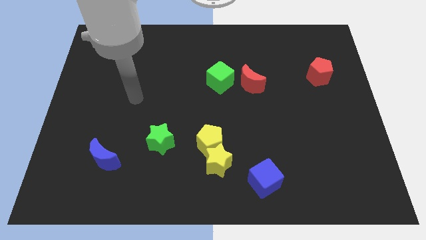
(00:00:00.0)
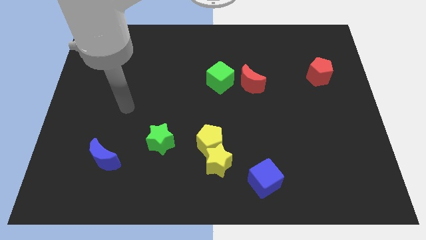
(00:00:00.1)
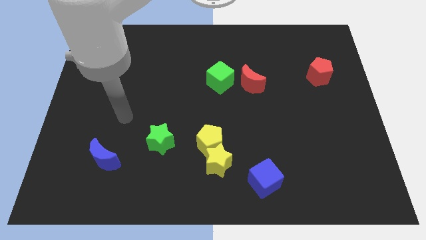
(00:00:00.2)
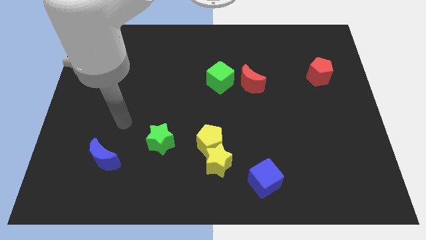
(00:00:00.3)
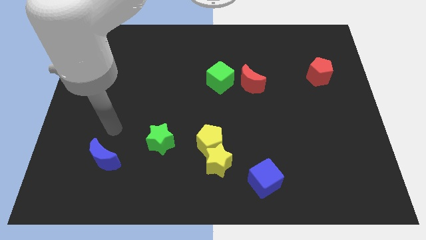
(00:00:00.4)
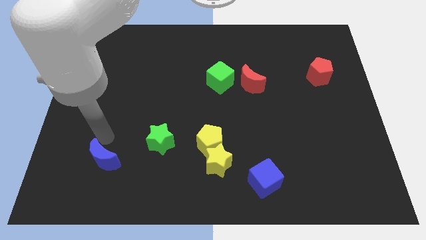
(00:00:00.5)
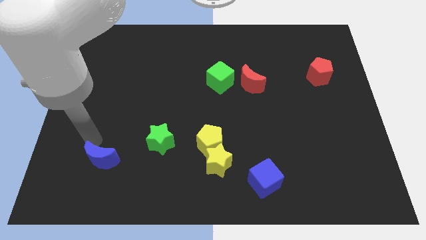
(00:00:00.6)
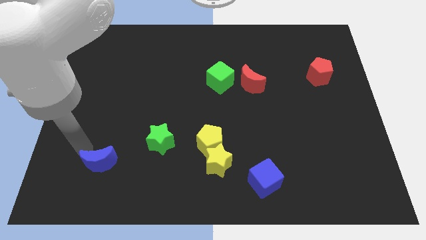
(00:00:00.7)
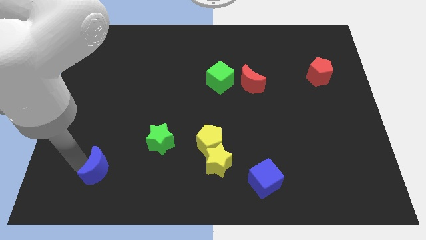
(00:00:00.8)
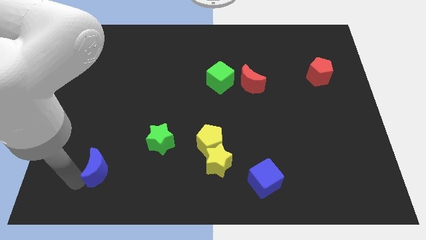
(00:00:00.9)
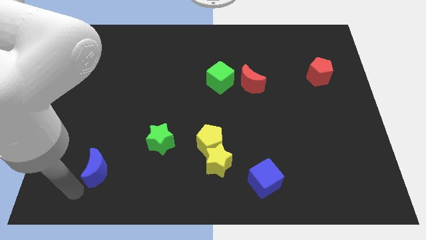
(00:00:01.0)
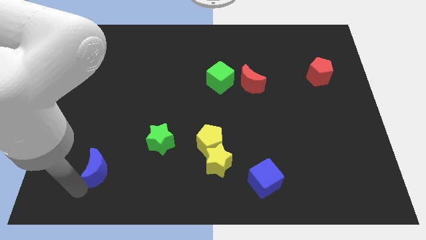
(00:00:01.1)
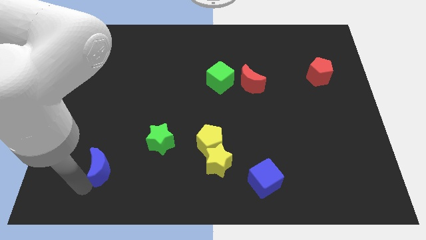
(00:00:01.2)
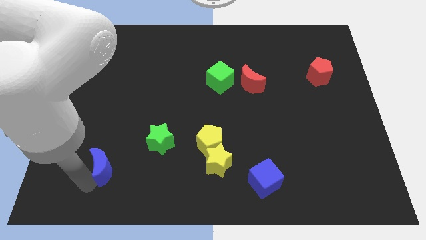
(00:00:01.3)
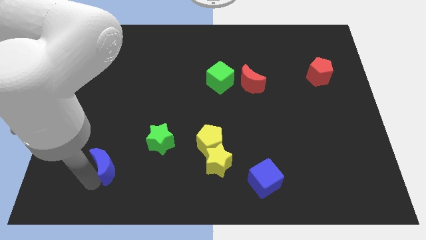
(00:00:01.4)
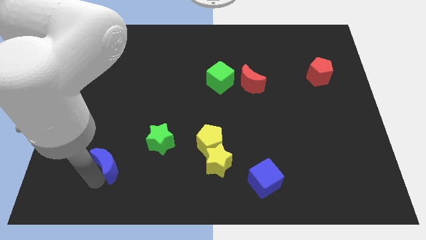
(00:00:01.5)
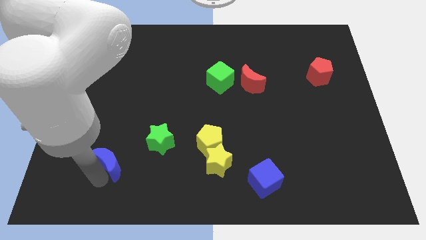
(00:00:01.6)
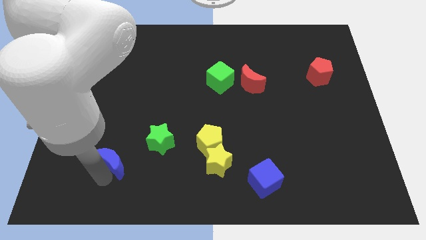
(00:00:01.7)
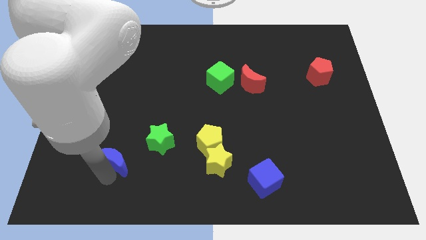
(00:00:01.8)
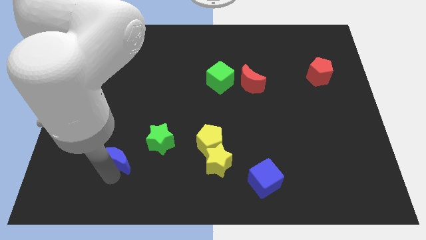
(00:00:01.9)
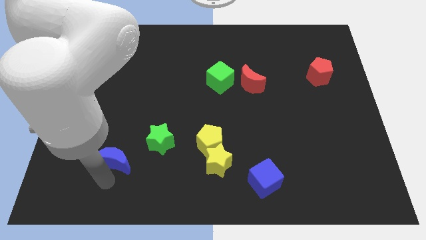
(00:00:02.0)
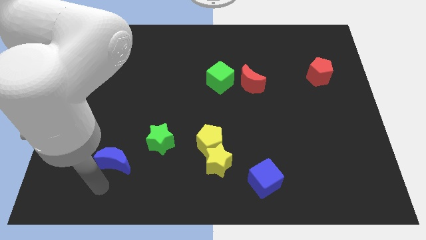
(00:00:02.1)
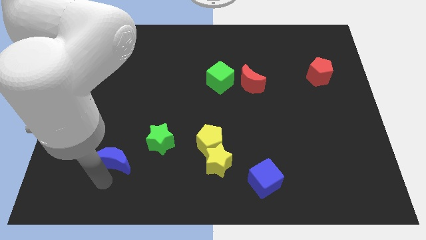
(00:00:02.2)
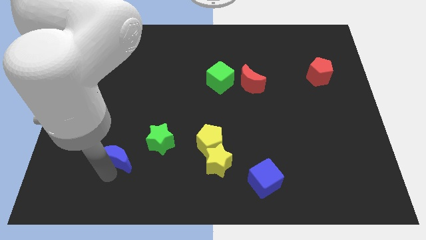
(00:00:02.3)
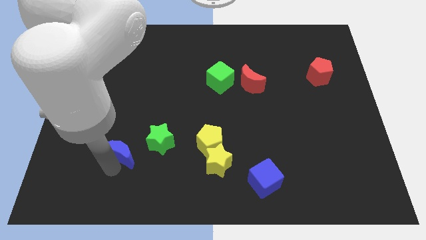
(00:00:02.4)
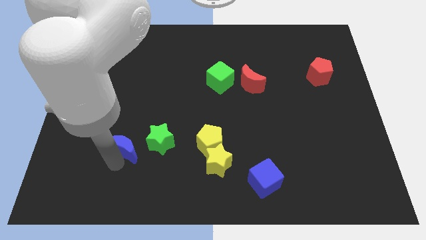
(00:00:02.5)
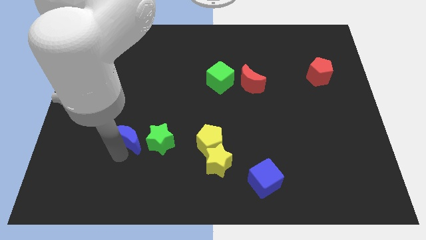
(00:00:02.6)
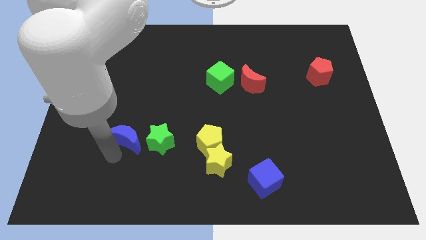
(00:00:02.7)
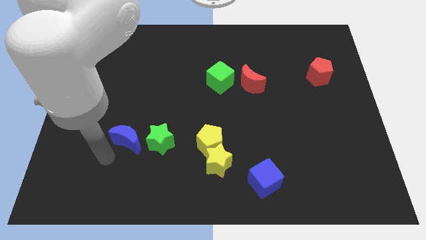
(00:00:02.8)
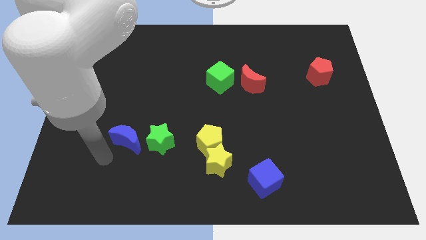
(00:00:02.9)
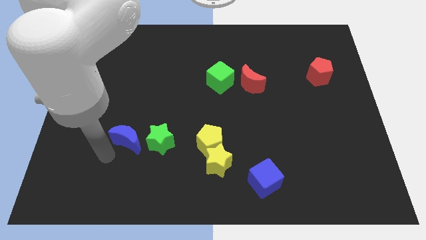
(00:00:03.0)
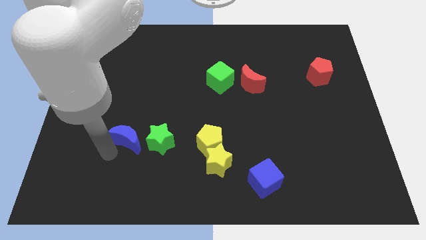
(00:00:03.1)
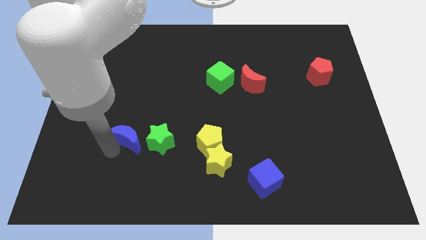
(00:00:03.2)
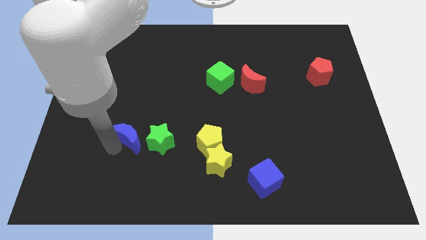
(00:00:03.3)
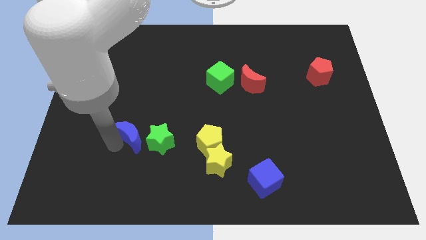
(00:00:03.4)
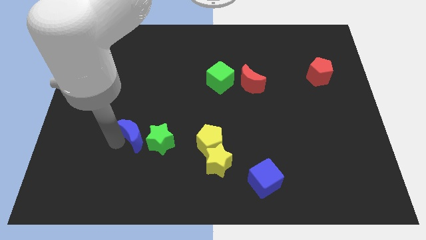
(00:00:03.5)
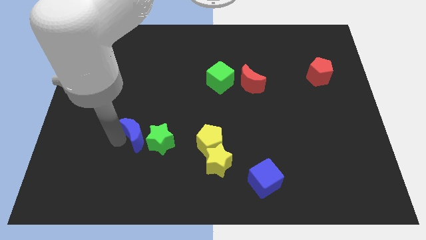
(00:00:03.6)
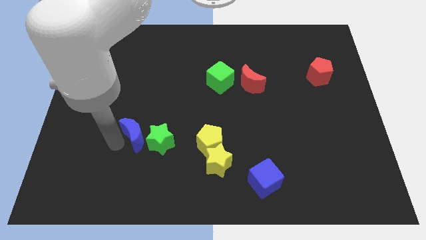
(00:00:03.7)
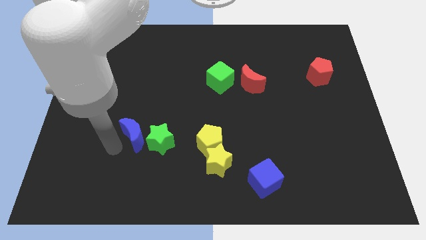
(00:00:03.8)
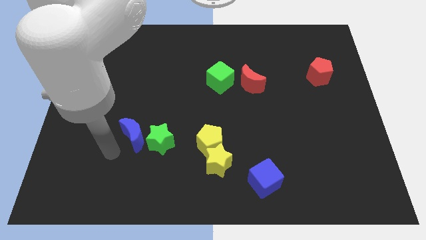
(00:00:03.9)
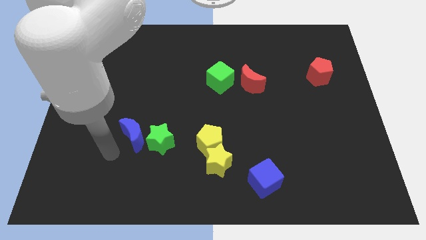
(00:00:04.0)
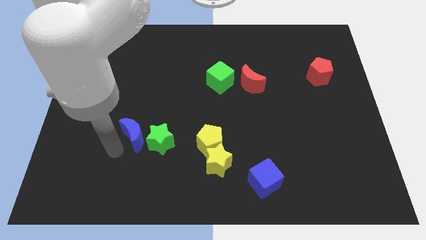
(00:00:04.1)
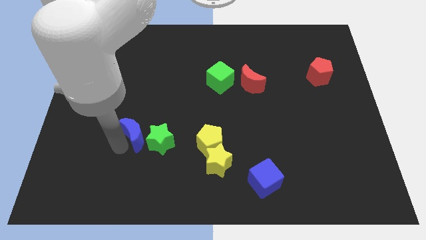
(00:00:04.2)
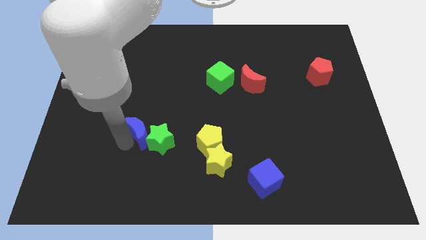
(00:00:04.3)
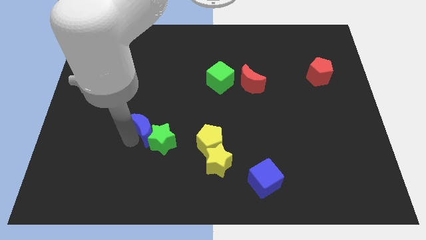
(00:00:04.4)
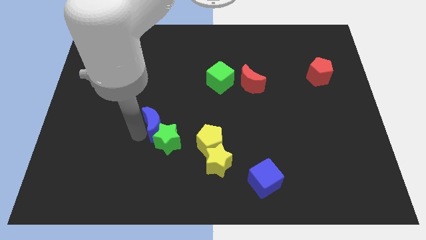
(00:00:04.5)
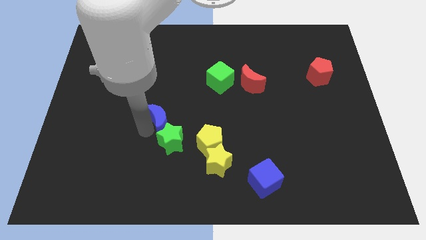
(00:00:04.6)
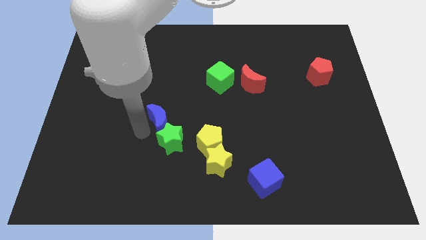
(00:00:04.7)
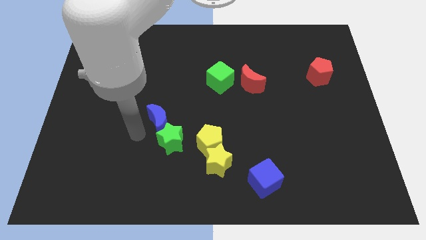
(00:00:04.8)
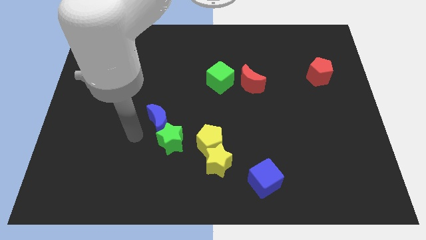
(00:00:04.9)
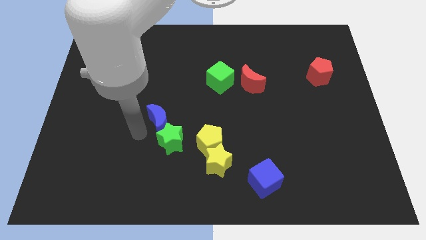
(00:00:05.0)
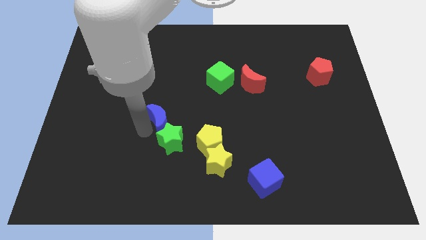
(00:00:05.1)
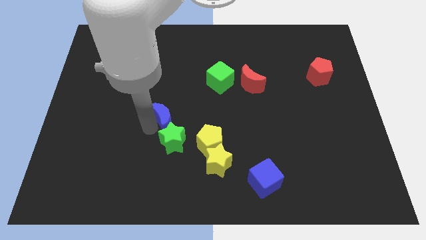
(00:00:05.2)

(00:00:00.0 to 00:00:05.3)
put the blue moon to the middle of the board
